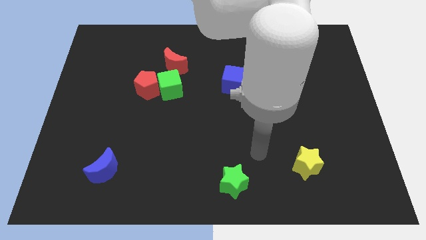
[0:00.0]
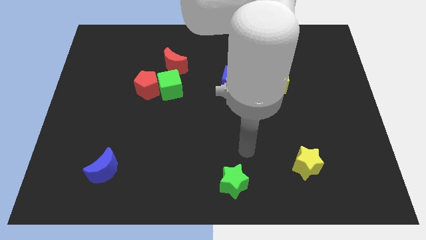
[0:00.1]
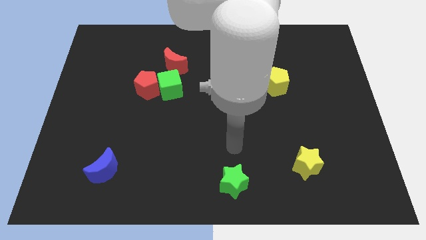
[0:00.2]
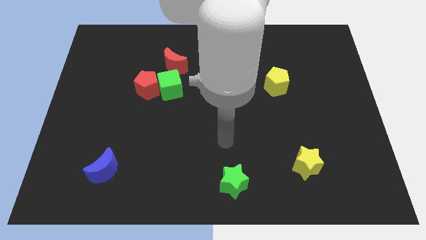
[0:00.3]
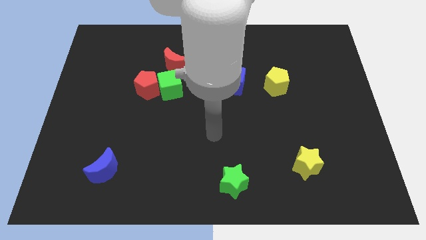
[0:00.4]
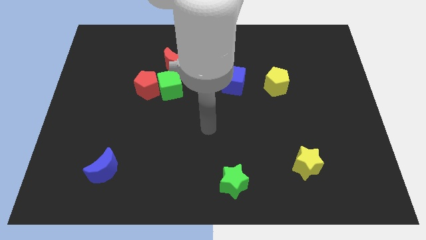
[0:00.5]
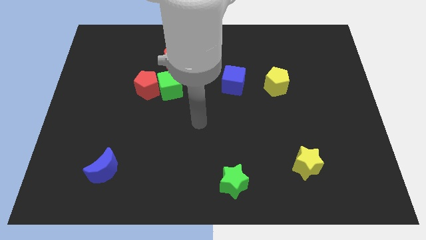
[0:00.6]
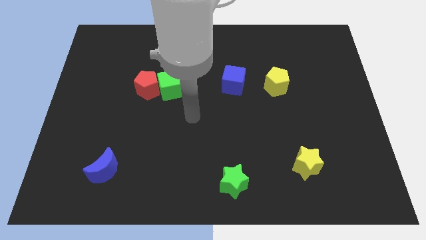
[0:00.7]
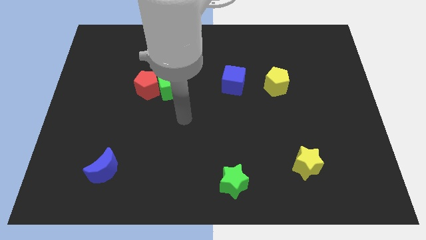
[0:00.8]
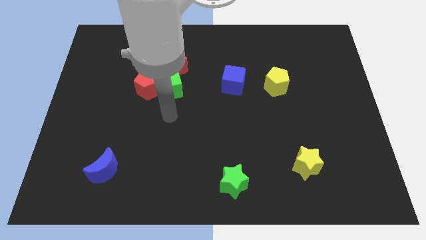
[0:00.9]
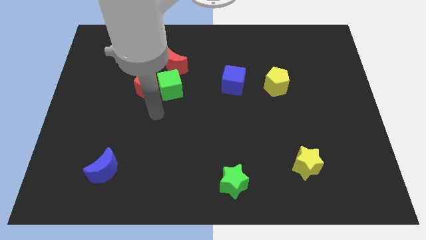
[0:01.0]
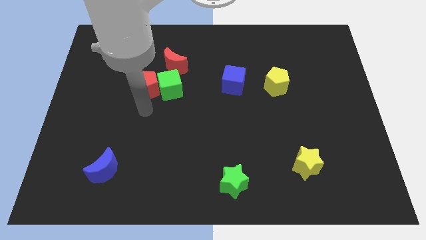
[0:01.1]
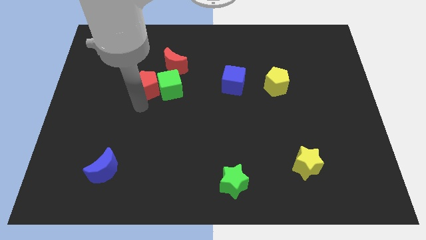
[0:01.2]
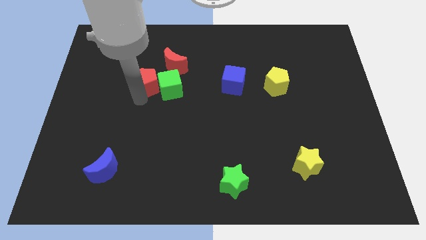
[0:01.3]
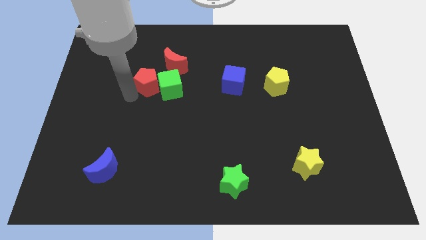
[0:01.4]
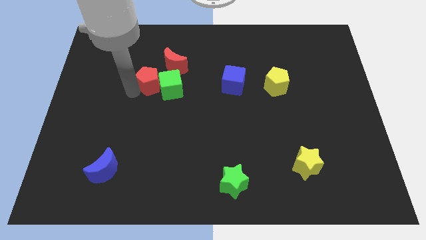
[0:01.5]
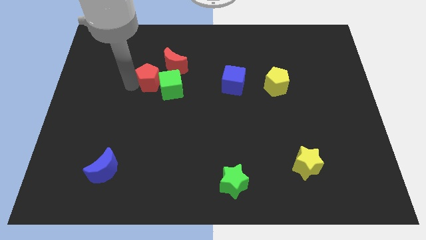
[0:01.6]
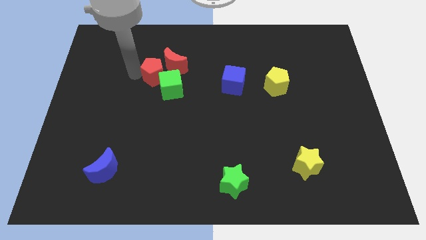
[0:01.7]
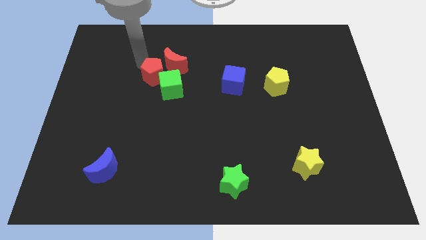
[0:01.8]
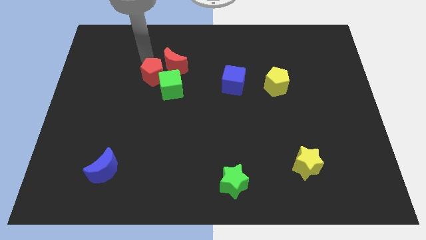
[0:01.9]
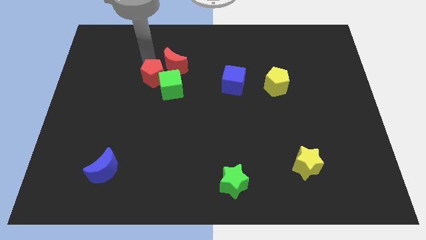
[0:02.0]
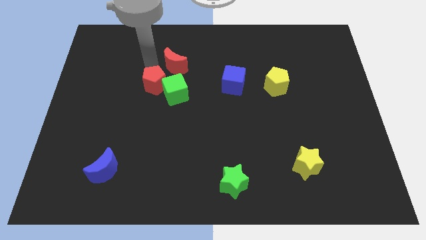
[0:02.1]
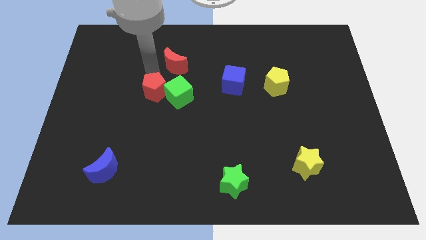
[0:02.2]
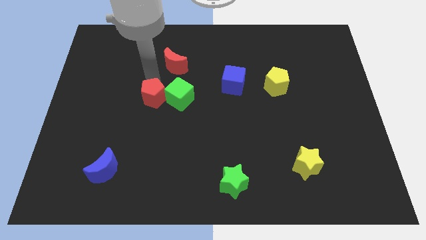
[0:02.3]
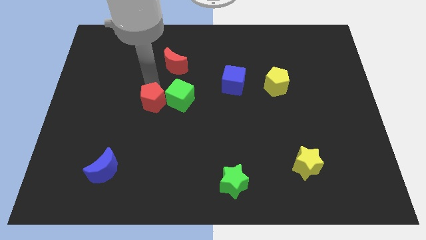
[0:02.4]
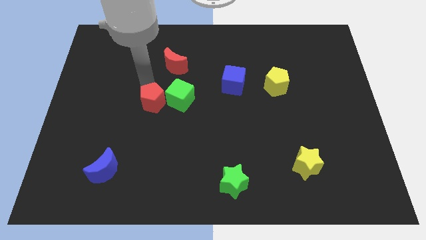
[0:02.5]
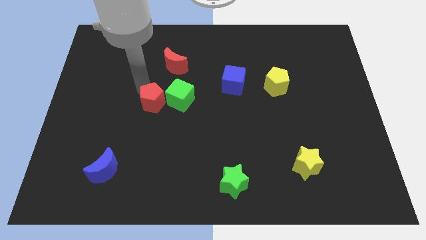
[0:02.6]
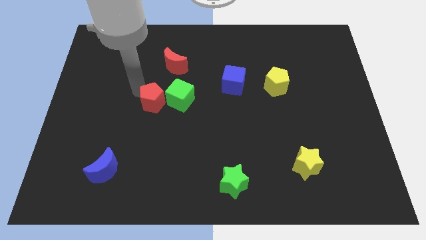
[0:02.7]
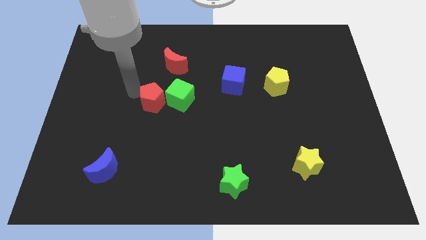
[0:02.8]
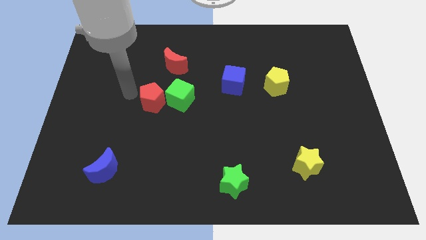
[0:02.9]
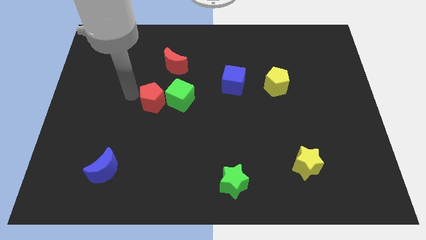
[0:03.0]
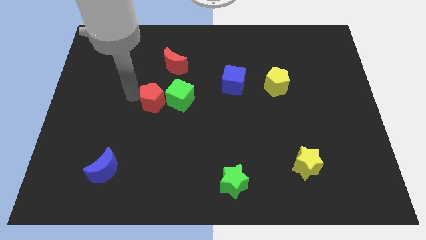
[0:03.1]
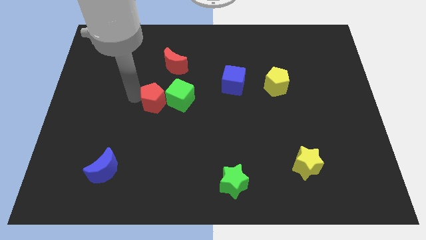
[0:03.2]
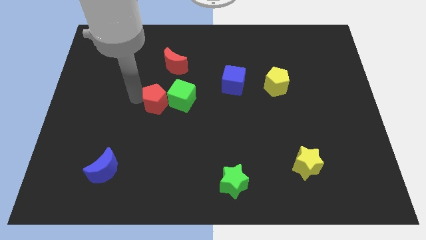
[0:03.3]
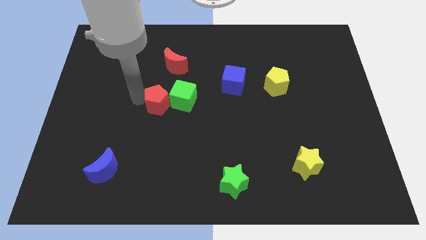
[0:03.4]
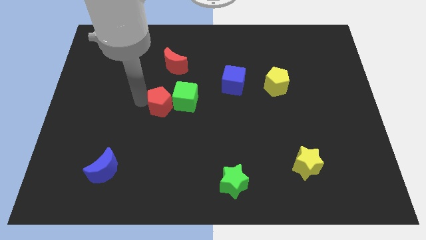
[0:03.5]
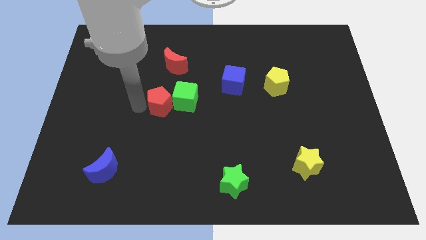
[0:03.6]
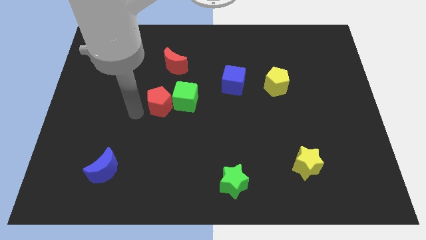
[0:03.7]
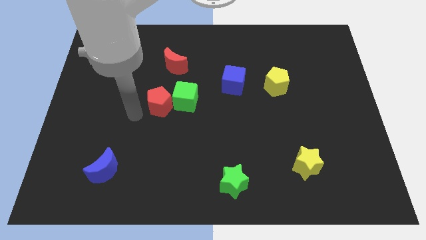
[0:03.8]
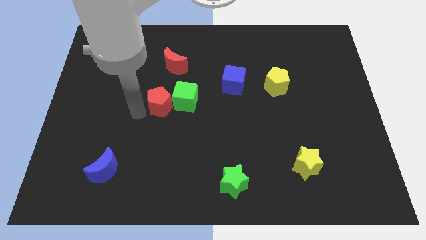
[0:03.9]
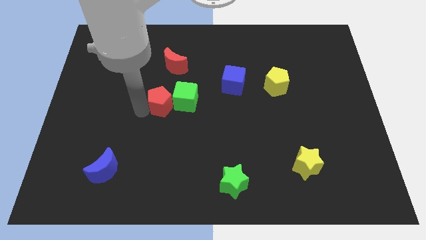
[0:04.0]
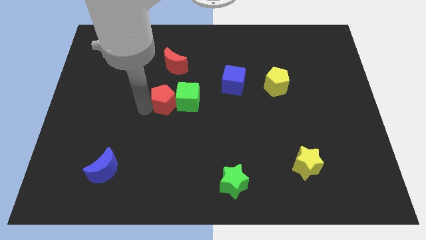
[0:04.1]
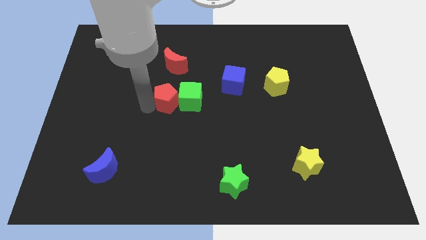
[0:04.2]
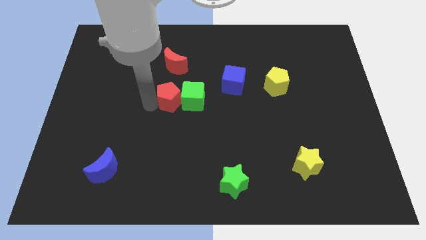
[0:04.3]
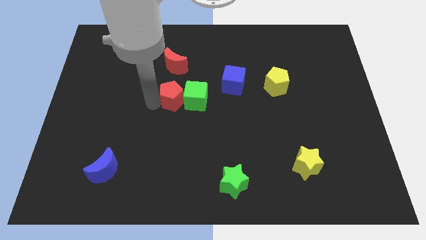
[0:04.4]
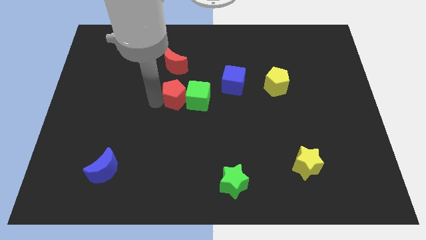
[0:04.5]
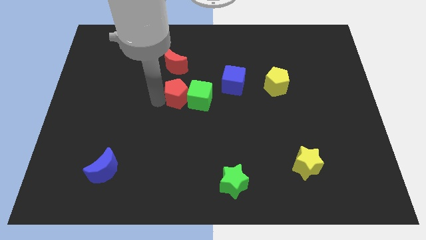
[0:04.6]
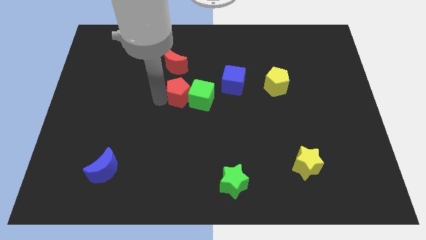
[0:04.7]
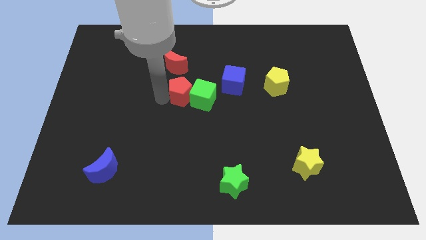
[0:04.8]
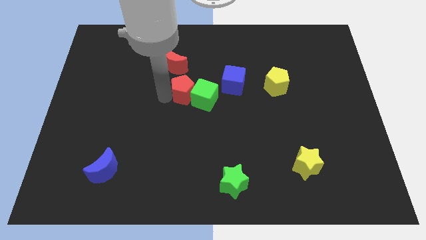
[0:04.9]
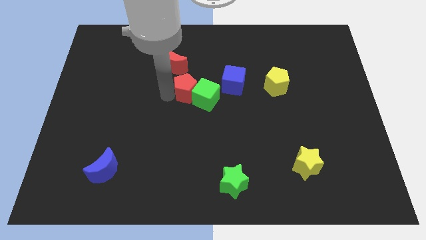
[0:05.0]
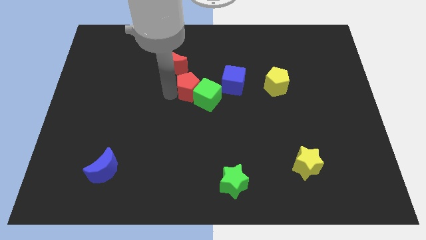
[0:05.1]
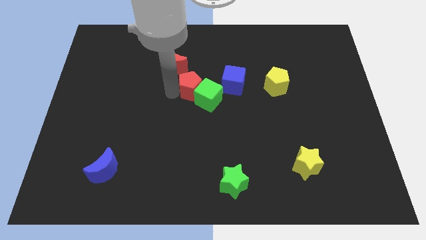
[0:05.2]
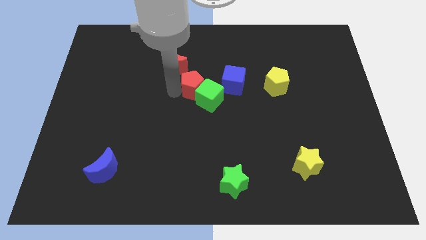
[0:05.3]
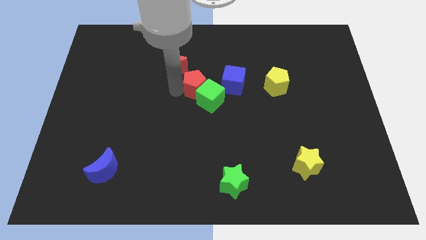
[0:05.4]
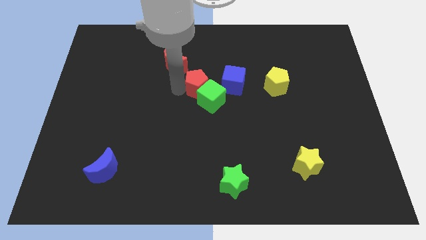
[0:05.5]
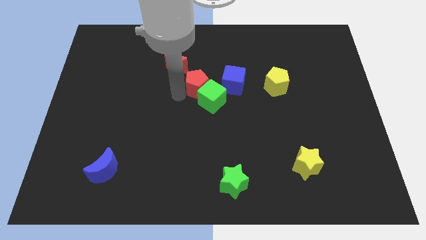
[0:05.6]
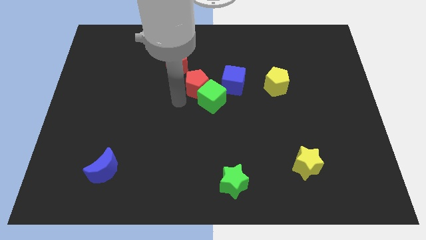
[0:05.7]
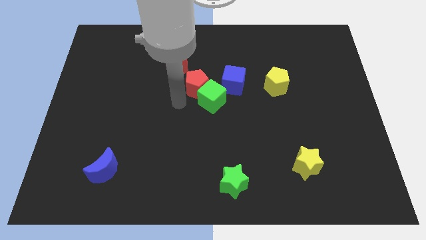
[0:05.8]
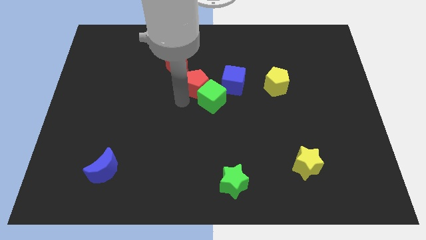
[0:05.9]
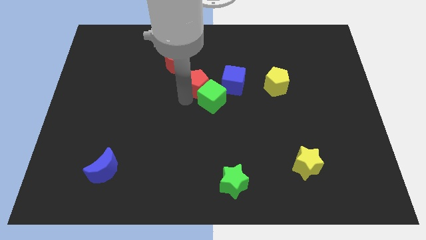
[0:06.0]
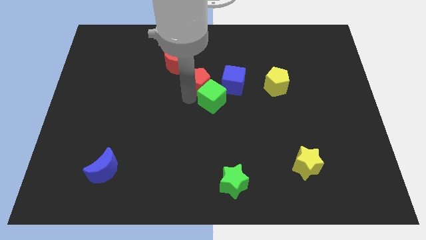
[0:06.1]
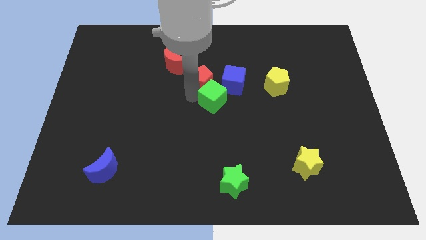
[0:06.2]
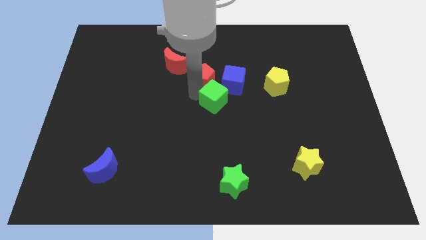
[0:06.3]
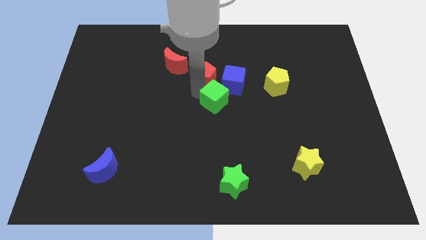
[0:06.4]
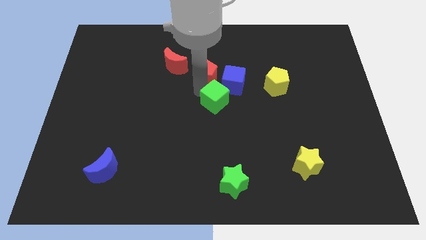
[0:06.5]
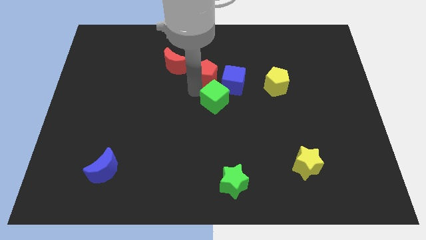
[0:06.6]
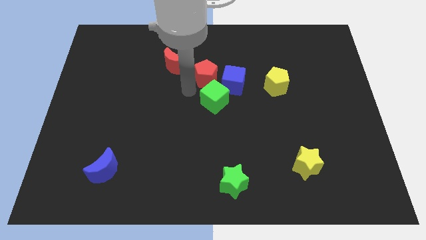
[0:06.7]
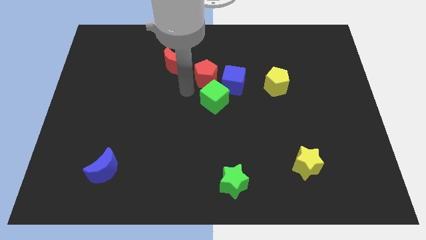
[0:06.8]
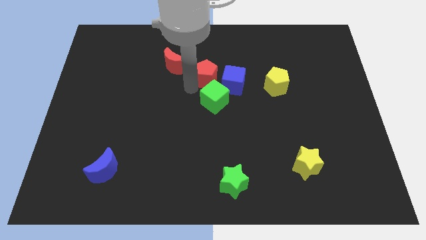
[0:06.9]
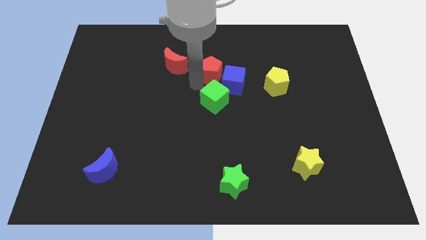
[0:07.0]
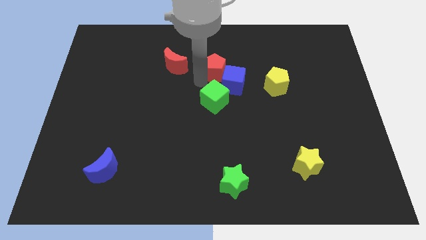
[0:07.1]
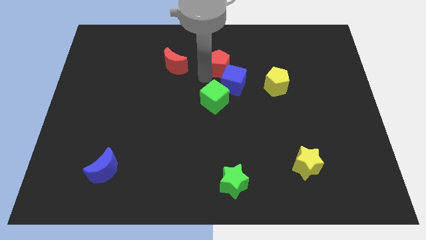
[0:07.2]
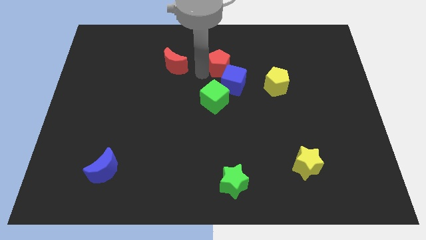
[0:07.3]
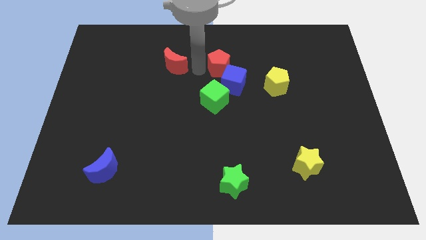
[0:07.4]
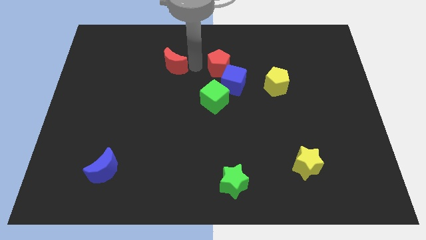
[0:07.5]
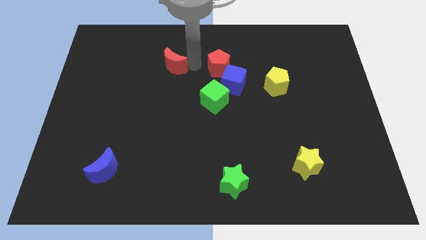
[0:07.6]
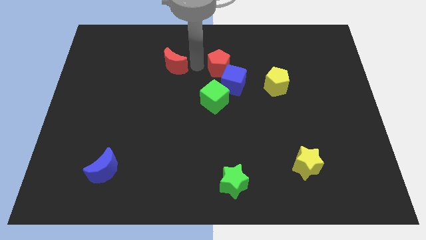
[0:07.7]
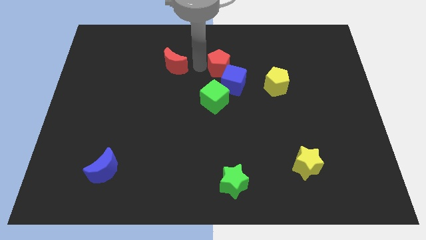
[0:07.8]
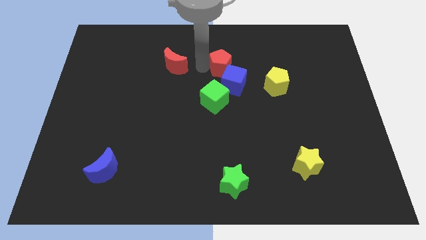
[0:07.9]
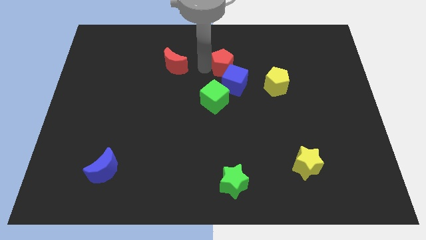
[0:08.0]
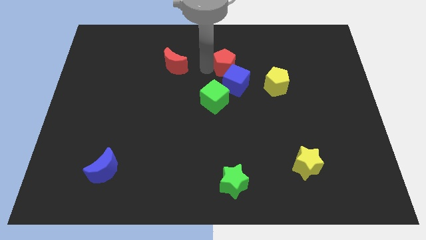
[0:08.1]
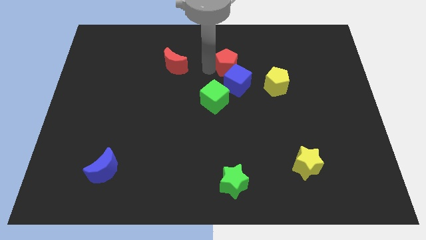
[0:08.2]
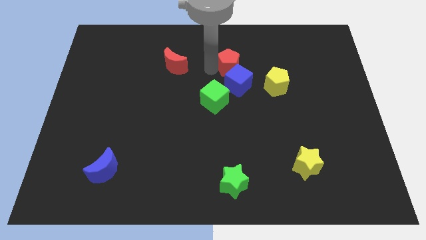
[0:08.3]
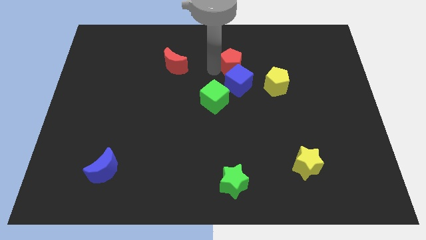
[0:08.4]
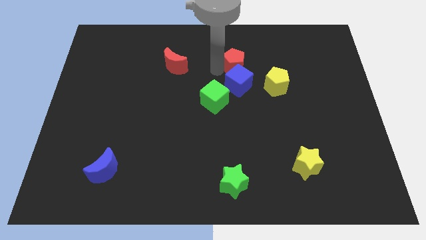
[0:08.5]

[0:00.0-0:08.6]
move the red pentagon to the top right side of the blue cube
